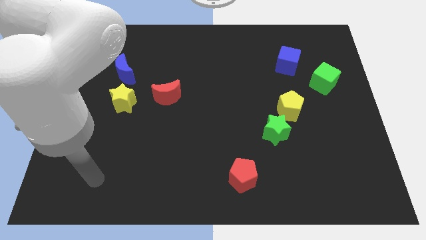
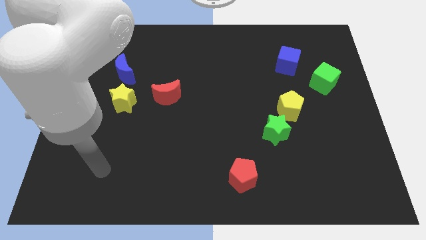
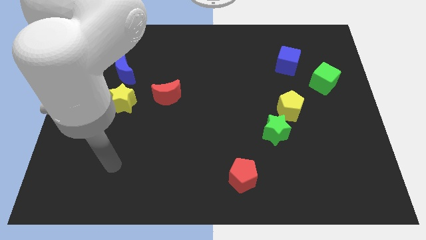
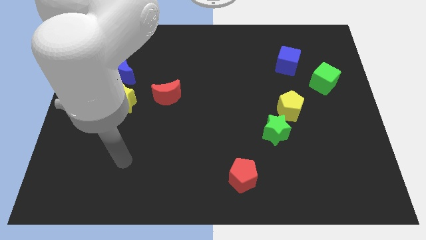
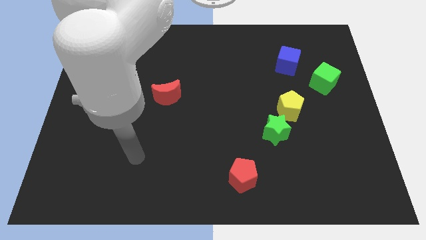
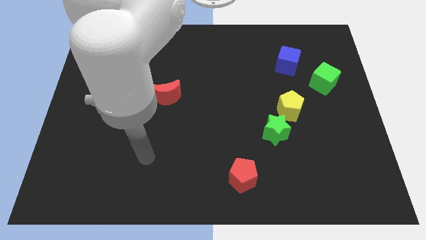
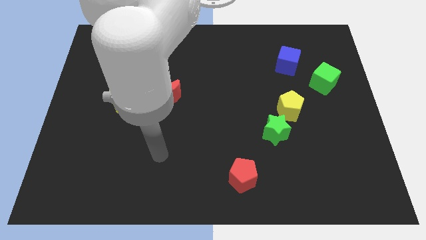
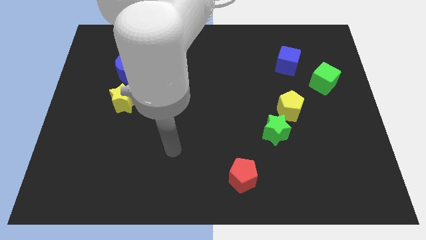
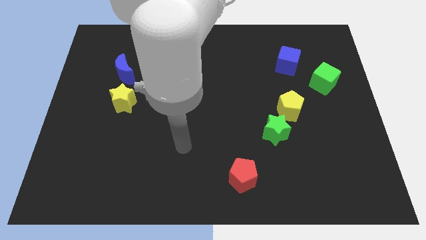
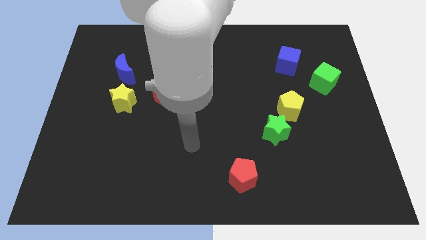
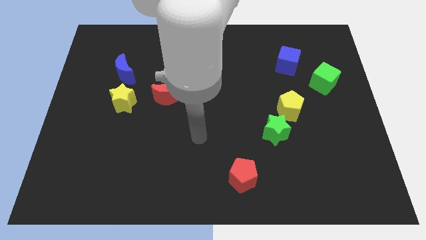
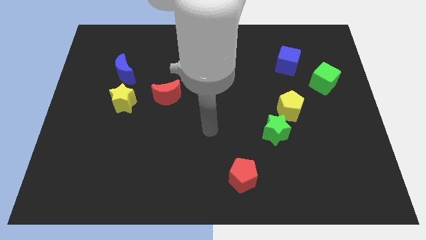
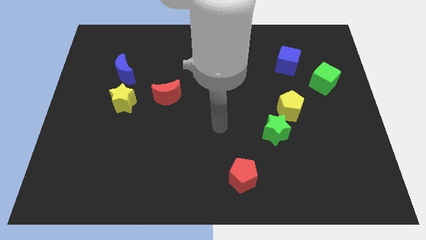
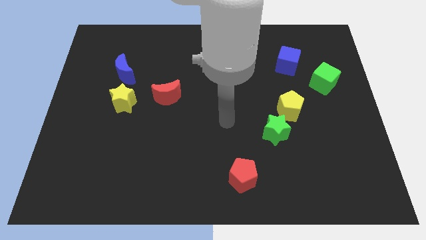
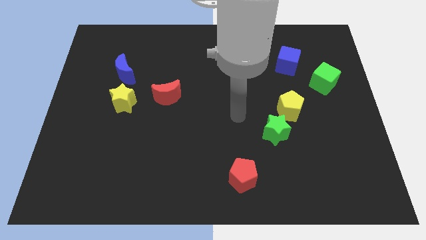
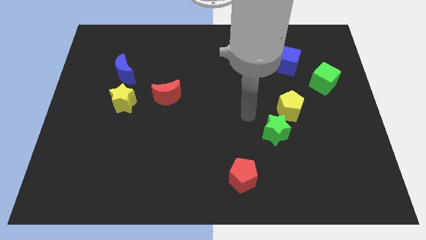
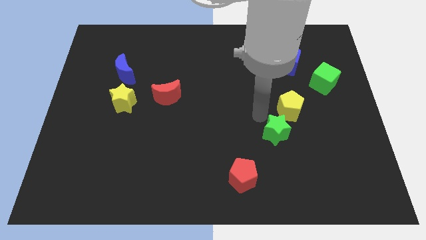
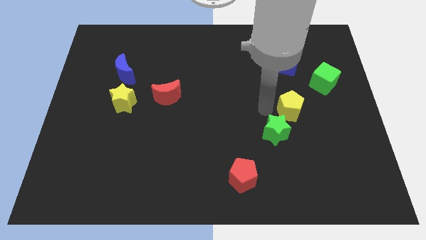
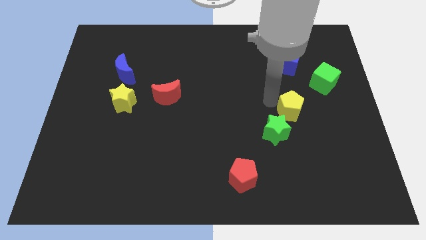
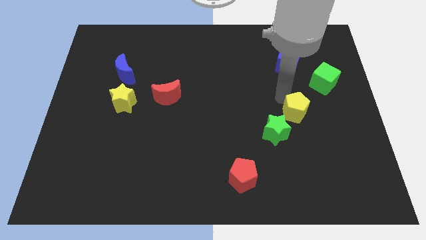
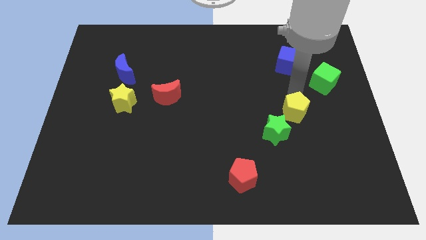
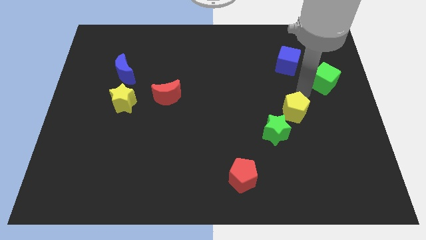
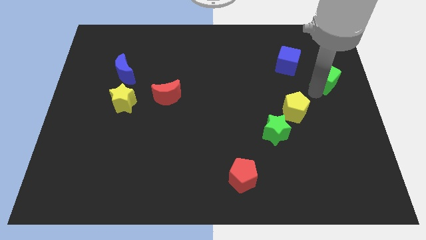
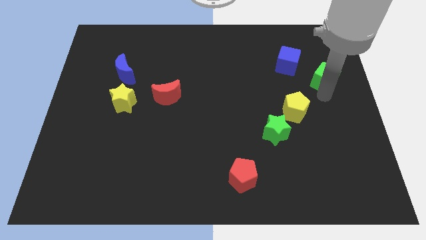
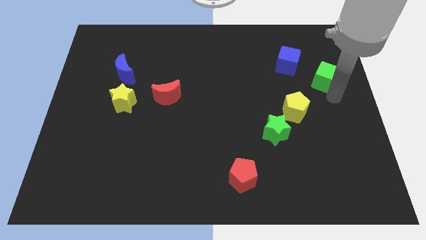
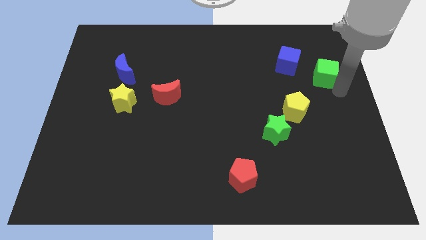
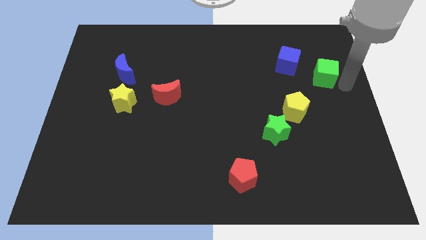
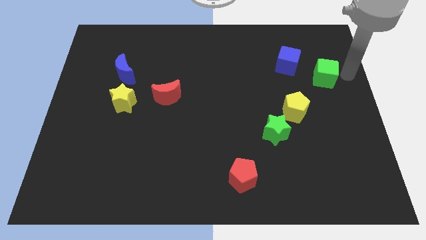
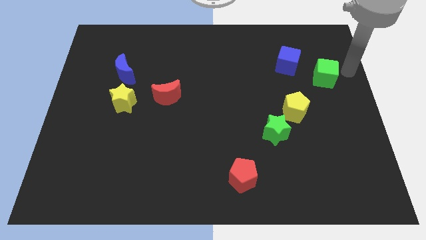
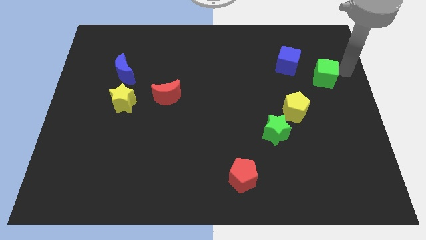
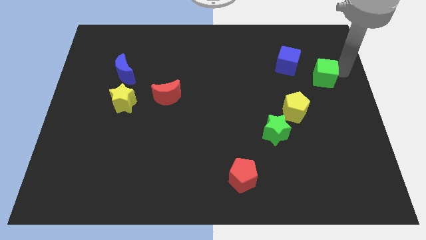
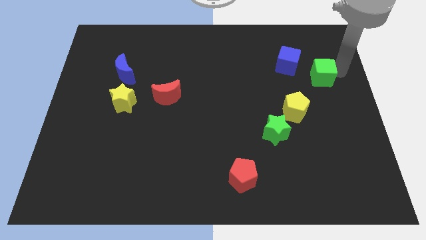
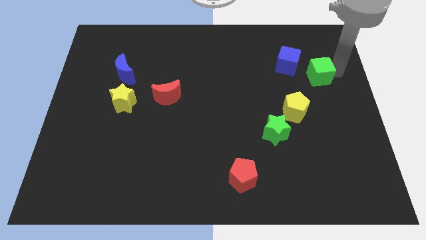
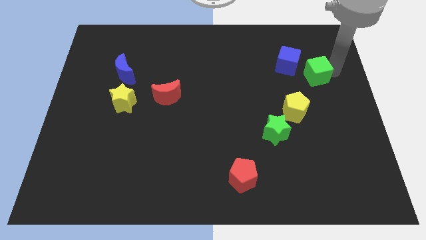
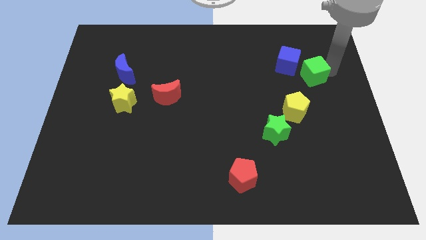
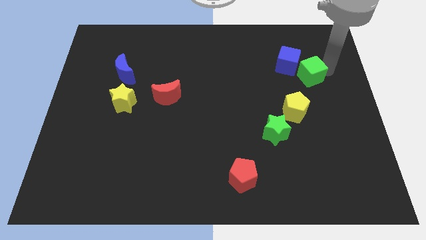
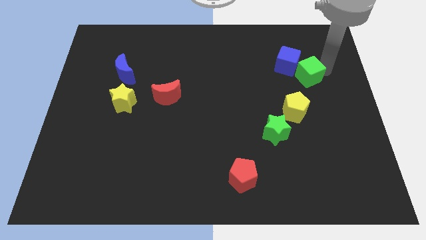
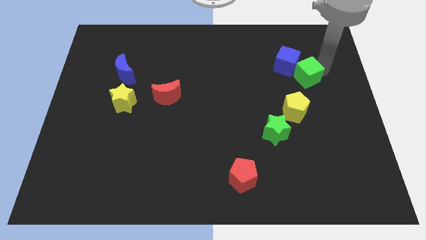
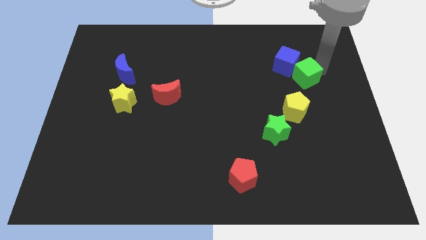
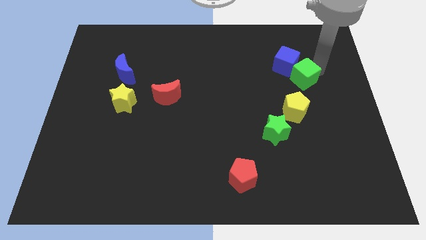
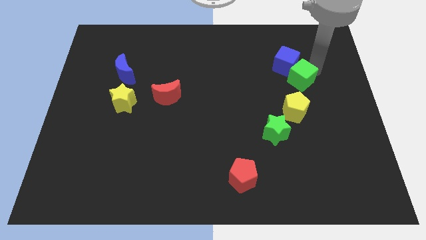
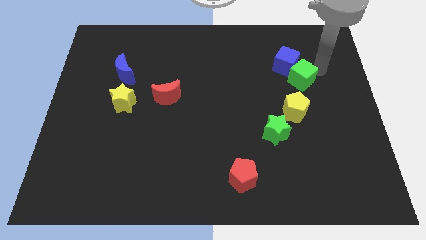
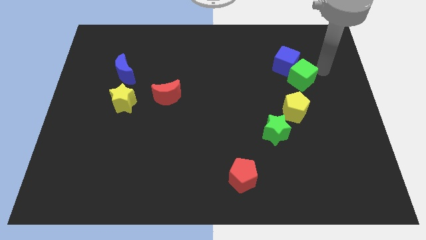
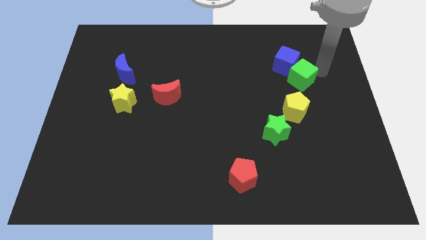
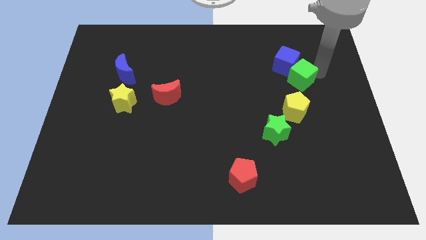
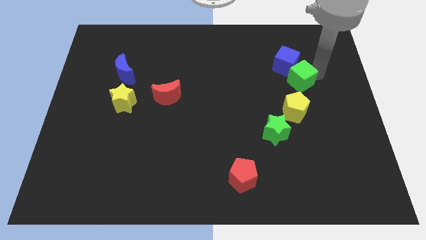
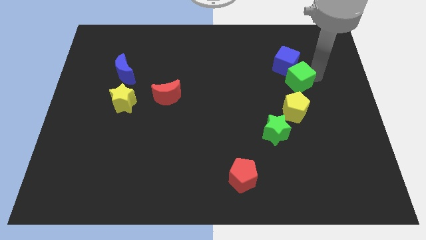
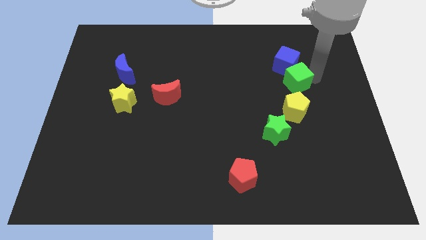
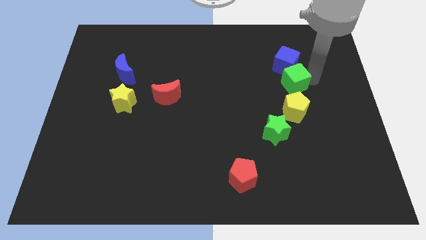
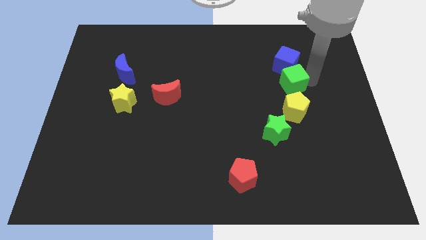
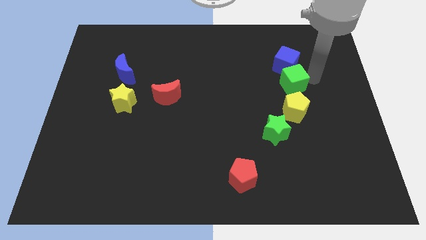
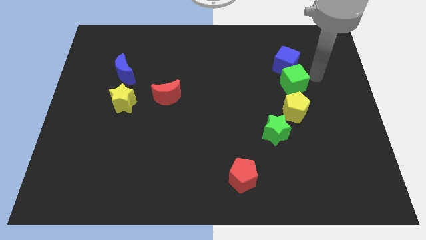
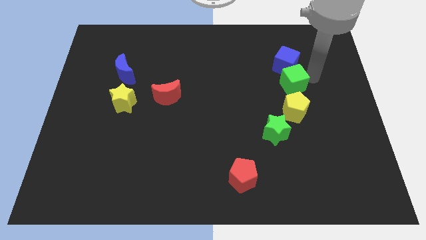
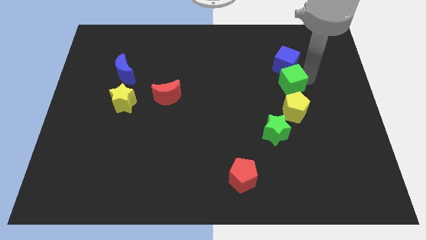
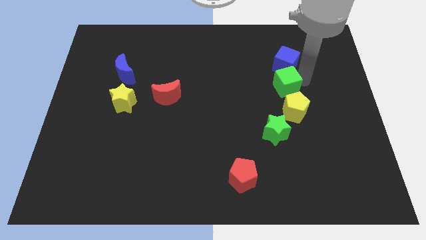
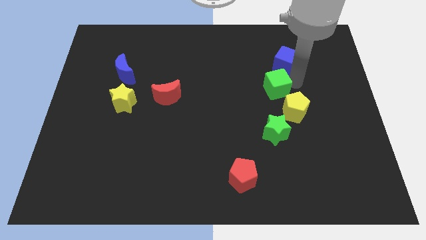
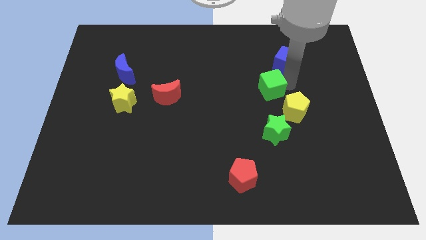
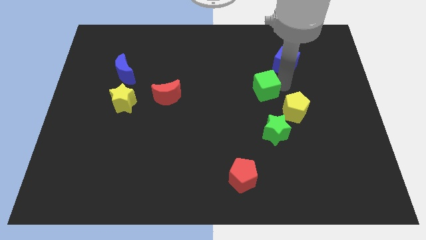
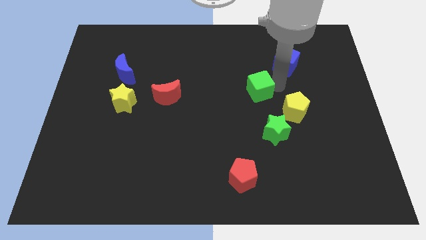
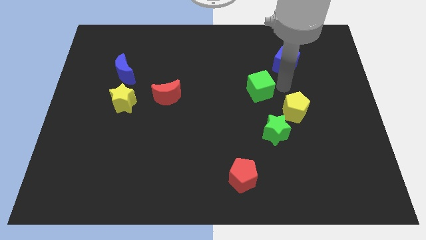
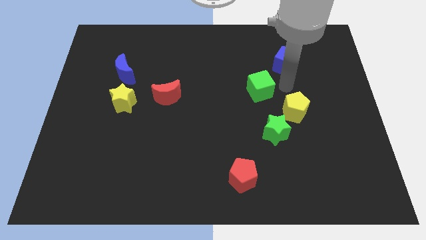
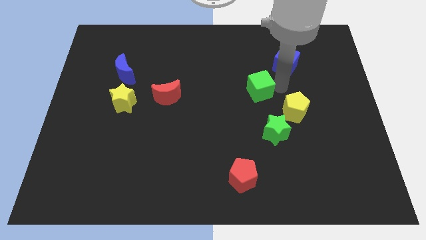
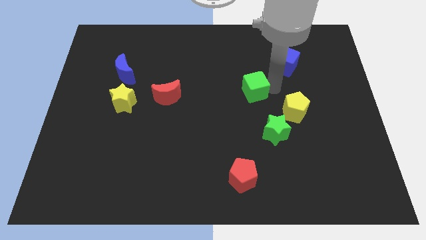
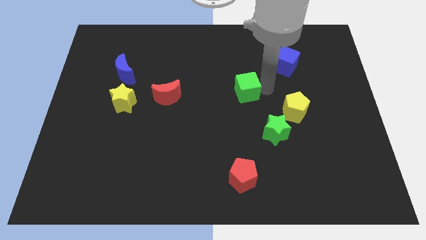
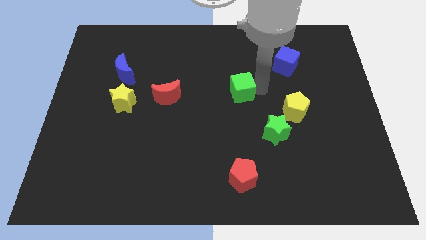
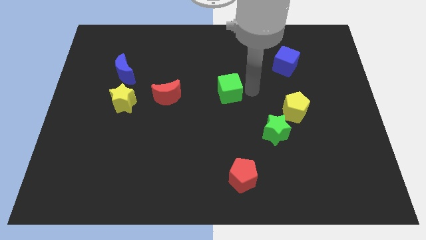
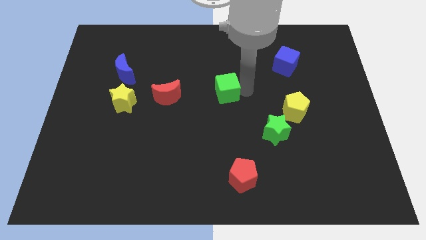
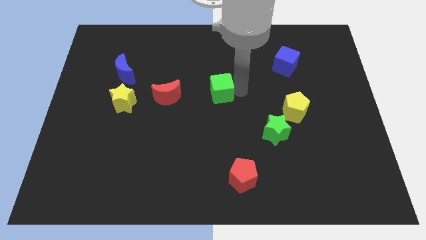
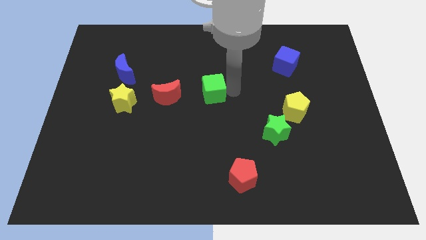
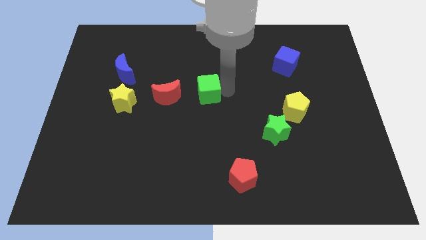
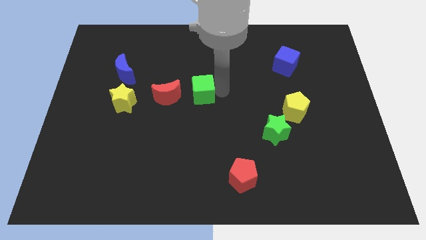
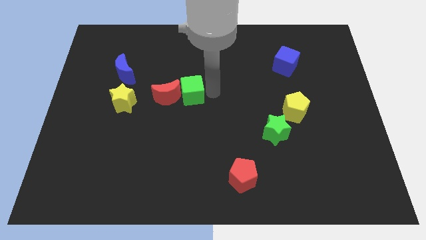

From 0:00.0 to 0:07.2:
push the green cube to the red moon

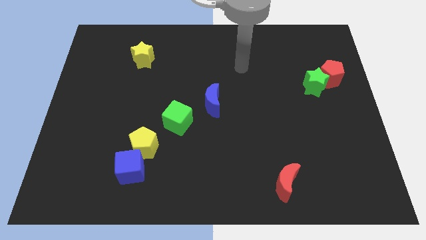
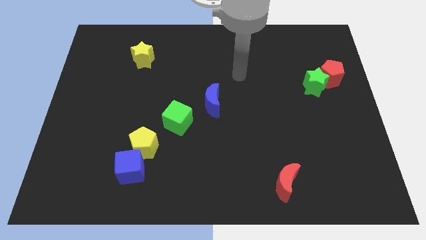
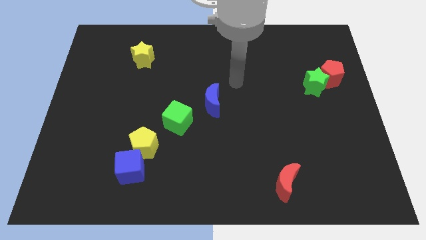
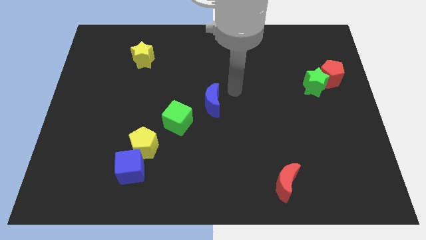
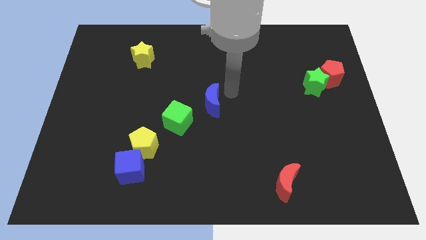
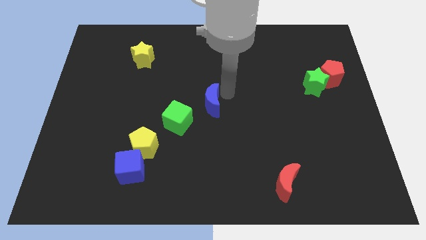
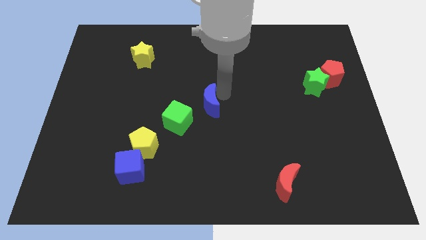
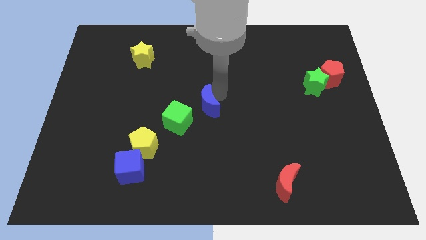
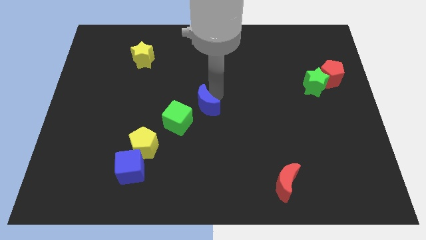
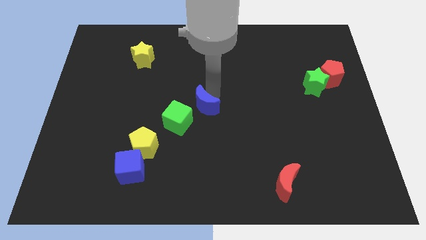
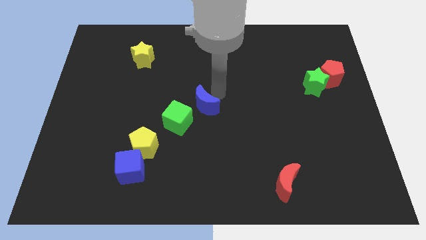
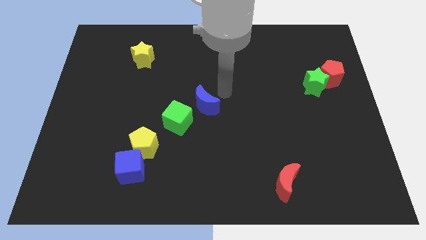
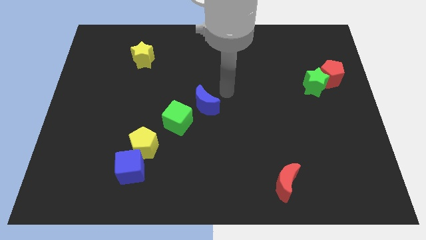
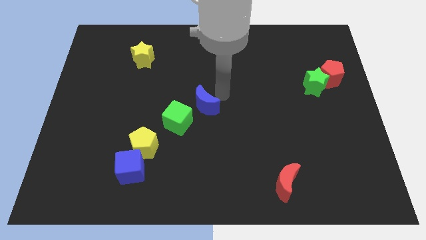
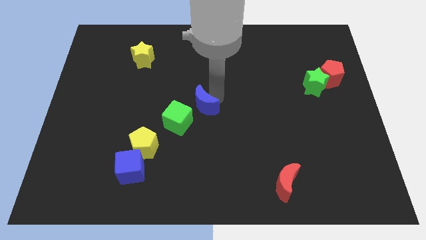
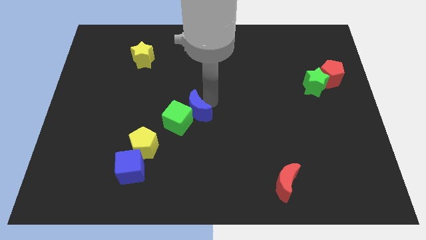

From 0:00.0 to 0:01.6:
put the blue moon towards the green cube
